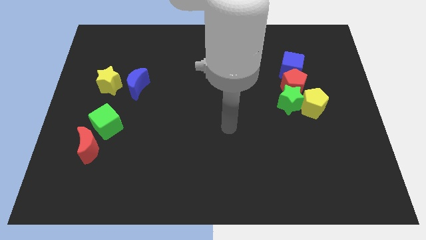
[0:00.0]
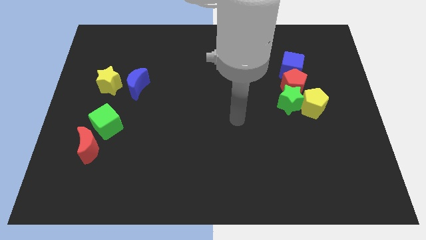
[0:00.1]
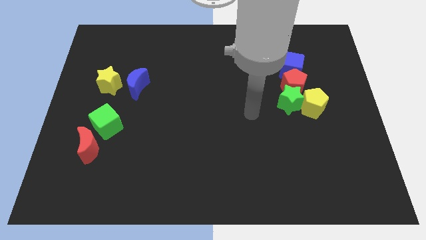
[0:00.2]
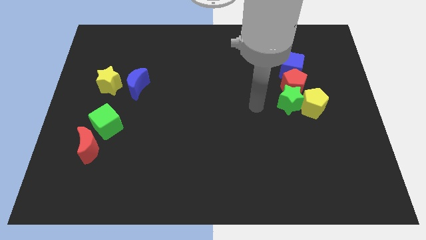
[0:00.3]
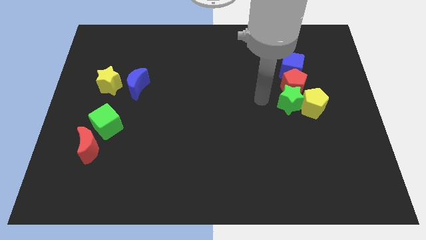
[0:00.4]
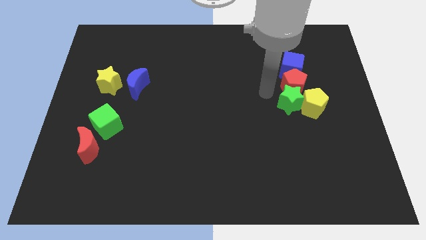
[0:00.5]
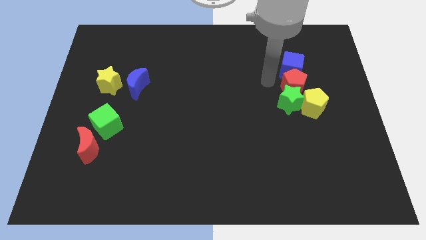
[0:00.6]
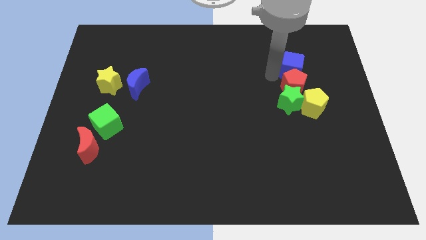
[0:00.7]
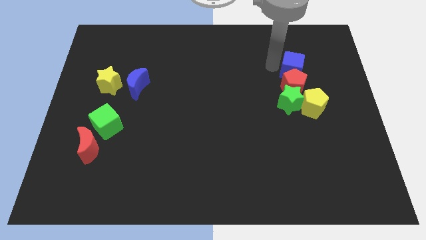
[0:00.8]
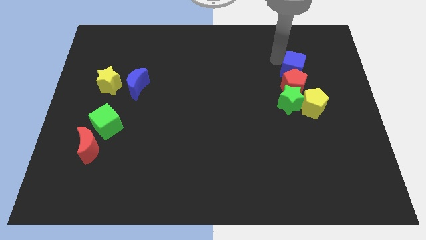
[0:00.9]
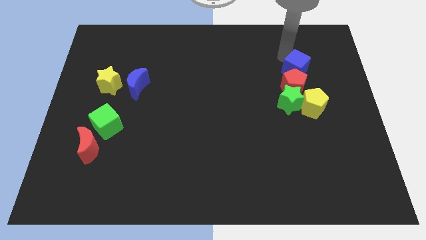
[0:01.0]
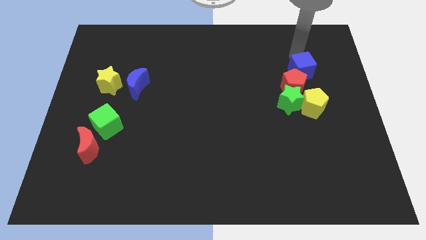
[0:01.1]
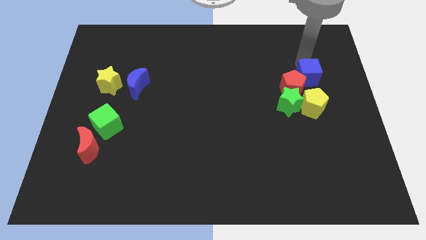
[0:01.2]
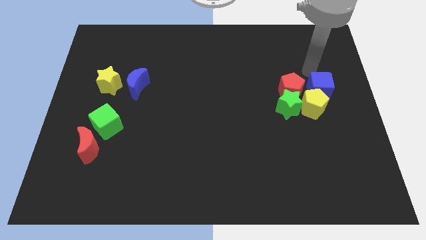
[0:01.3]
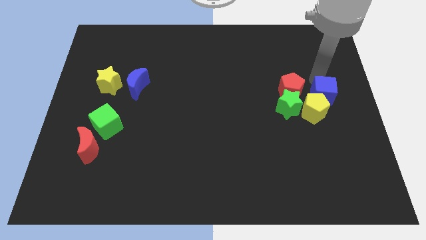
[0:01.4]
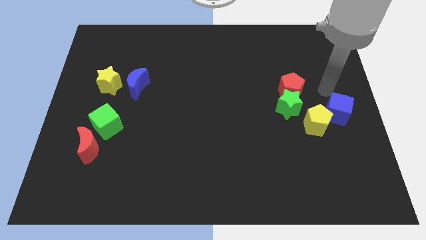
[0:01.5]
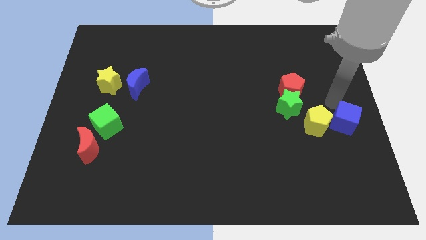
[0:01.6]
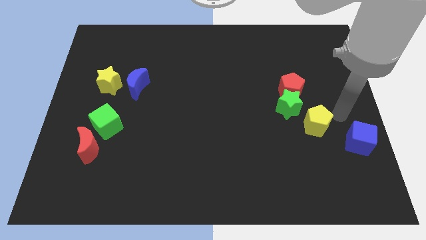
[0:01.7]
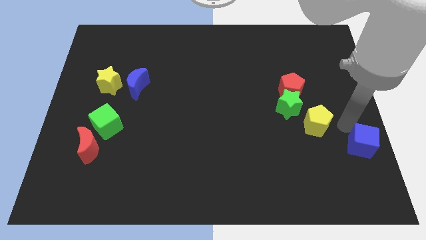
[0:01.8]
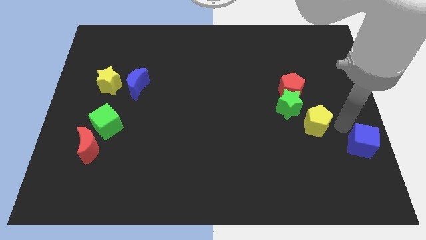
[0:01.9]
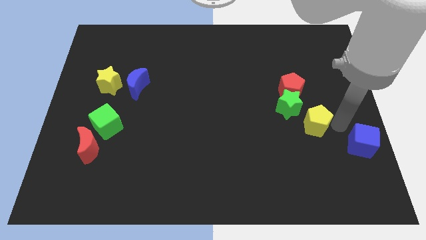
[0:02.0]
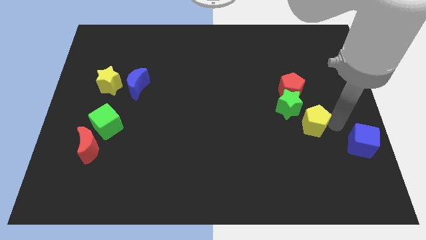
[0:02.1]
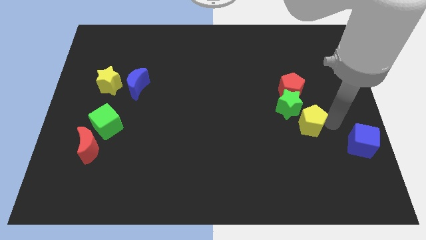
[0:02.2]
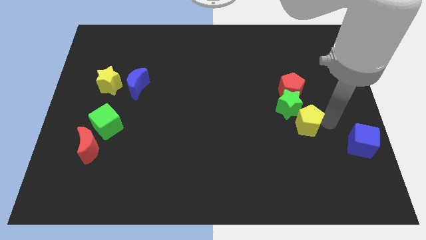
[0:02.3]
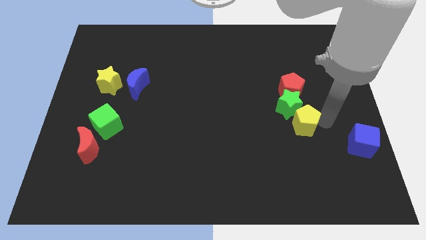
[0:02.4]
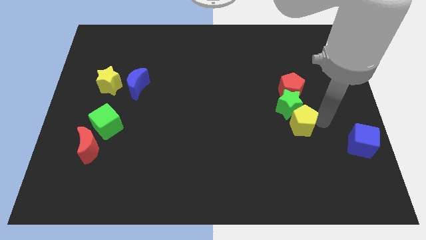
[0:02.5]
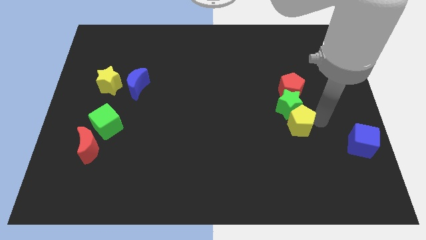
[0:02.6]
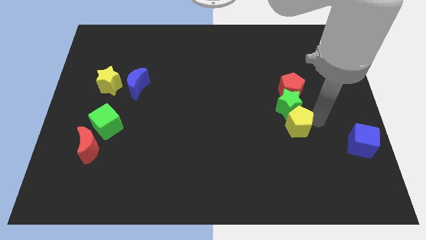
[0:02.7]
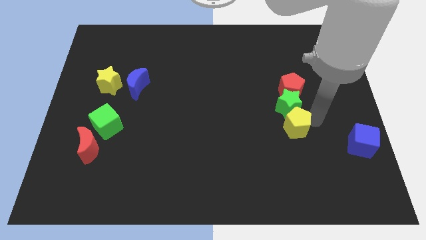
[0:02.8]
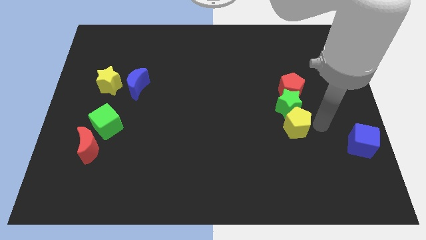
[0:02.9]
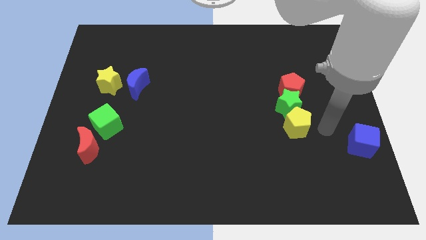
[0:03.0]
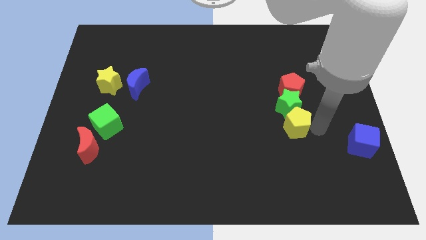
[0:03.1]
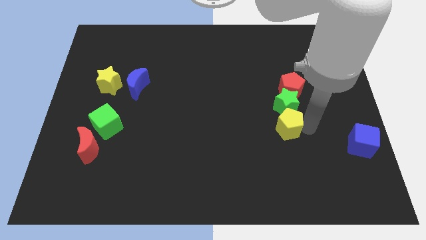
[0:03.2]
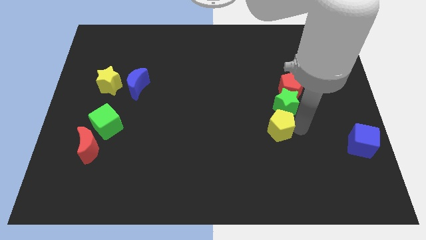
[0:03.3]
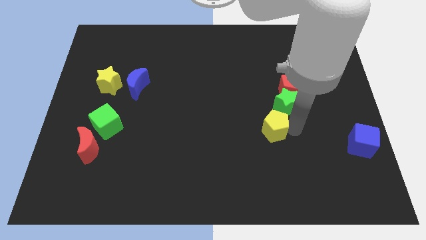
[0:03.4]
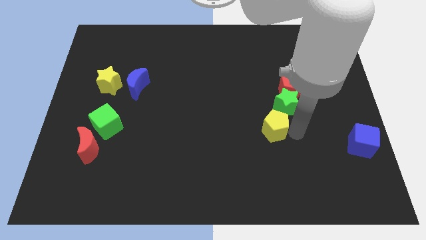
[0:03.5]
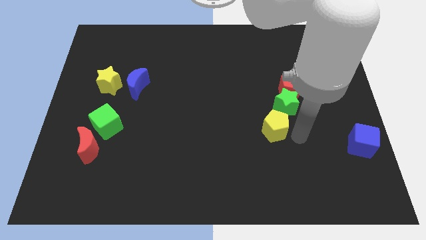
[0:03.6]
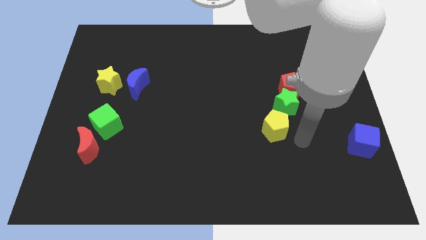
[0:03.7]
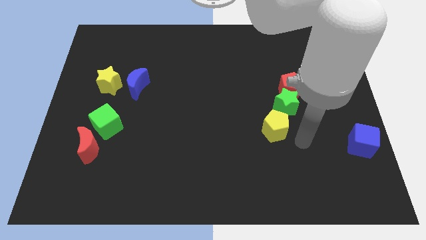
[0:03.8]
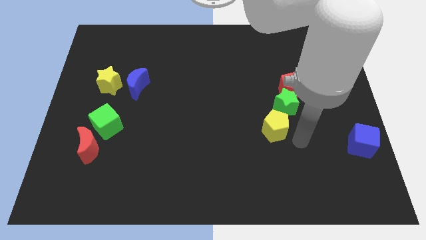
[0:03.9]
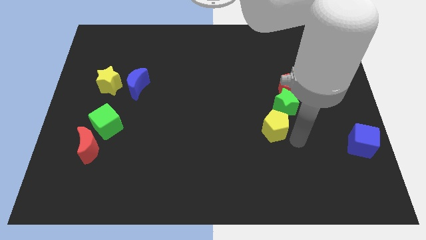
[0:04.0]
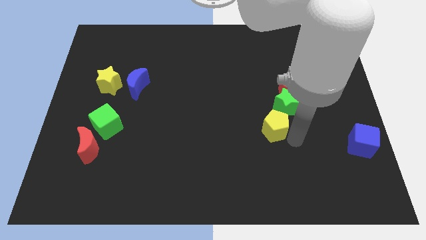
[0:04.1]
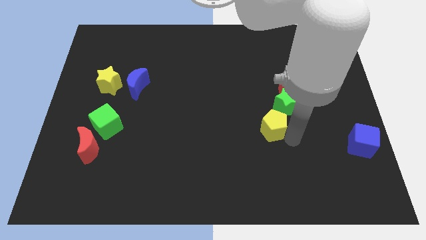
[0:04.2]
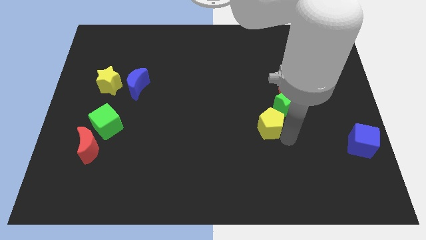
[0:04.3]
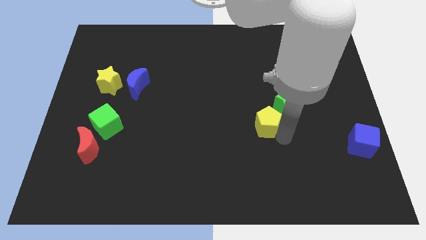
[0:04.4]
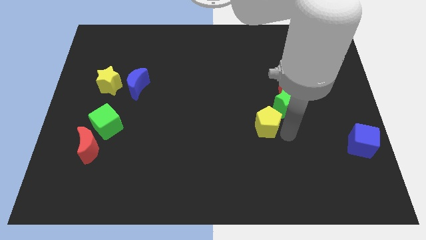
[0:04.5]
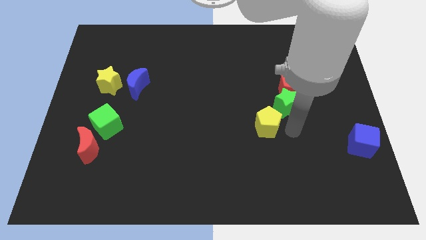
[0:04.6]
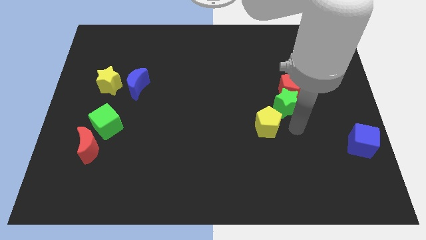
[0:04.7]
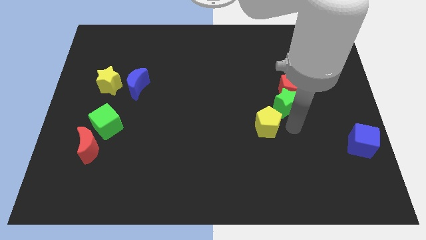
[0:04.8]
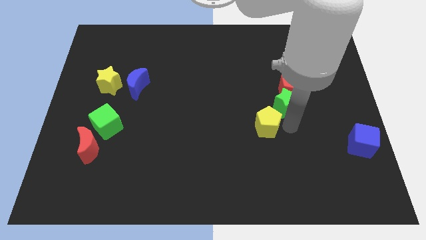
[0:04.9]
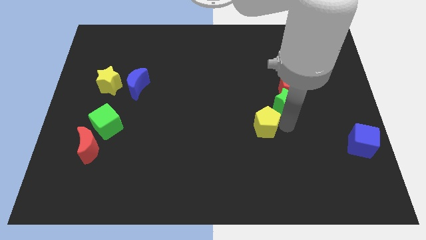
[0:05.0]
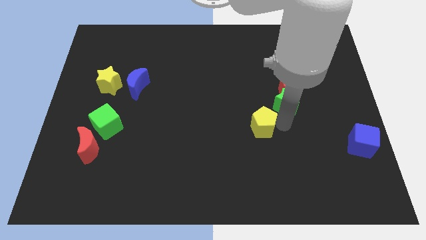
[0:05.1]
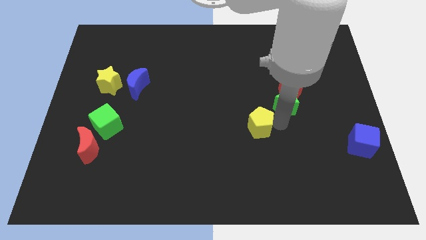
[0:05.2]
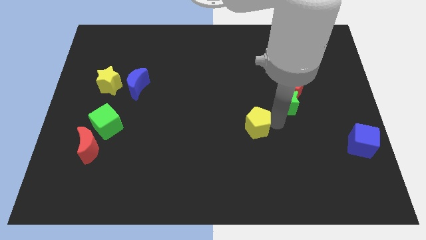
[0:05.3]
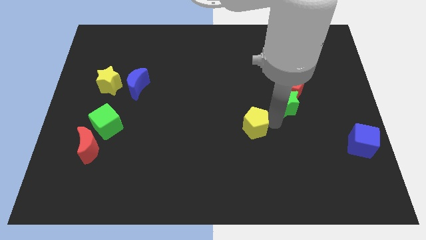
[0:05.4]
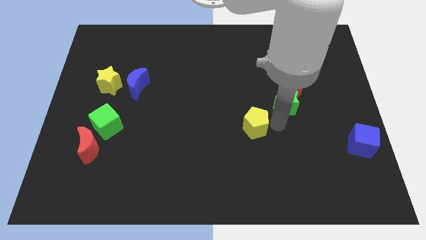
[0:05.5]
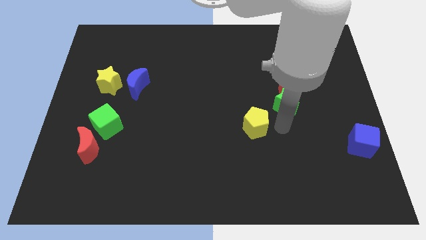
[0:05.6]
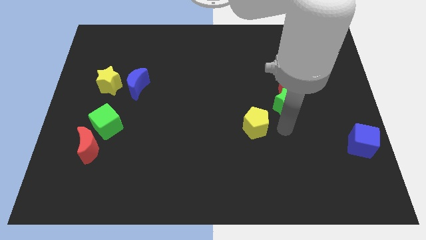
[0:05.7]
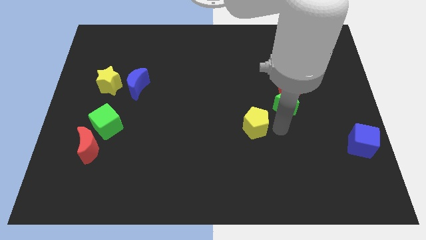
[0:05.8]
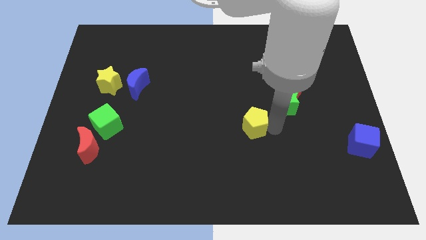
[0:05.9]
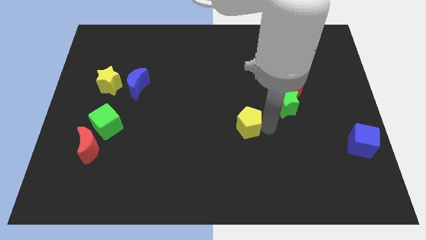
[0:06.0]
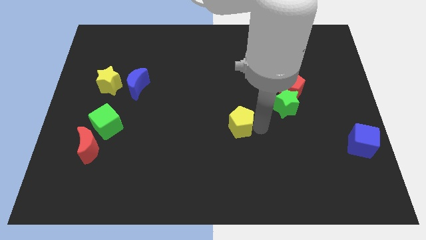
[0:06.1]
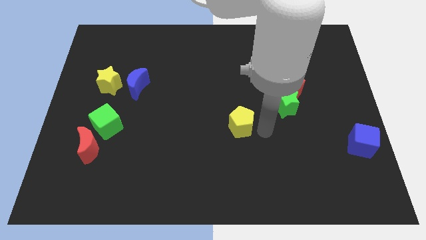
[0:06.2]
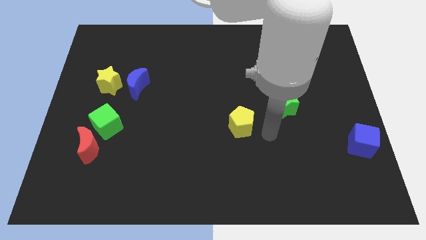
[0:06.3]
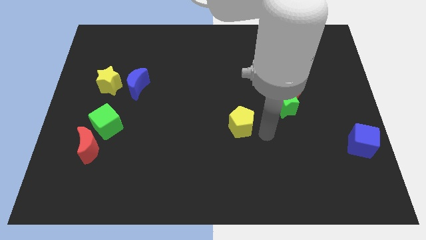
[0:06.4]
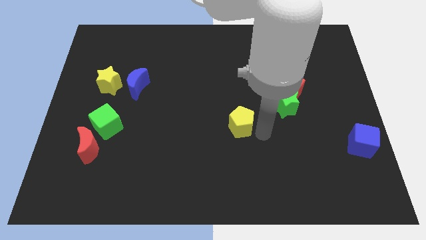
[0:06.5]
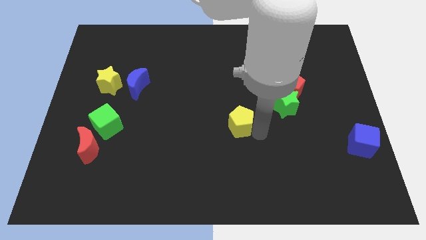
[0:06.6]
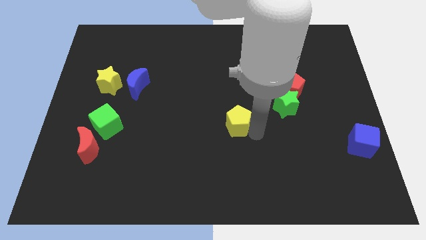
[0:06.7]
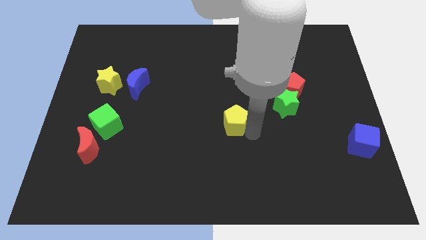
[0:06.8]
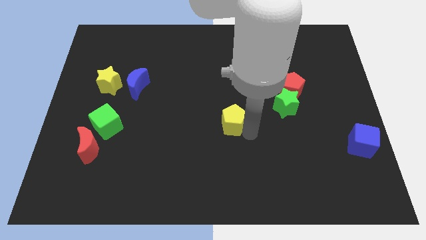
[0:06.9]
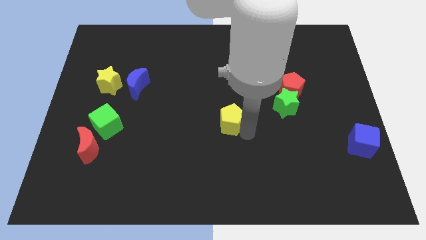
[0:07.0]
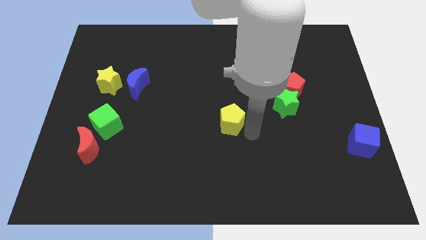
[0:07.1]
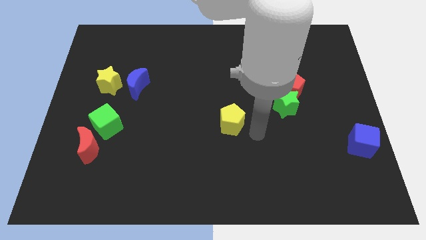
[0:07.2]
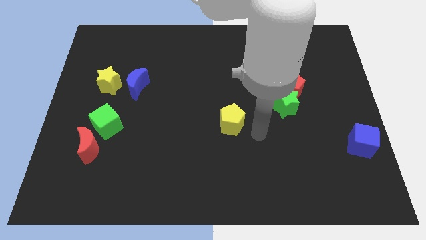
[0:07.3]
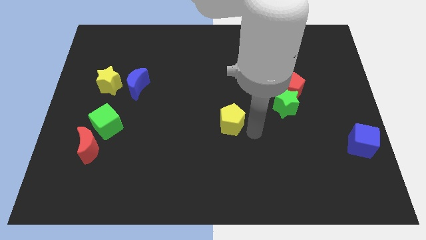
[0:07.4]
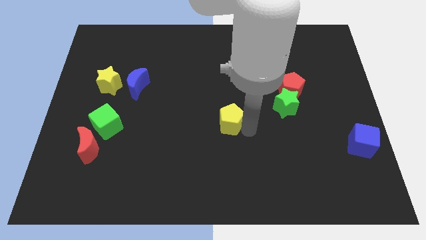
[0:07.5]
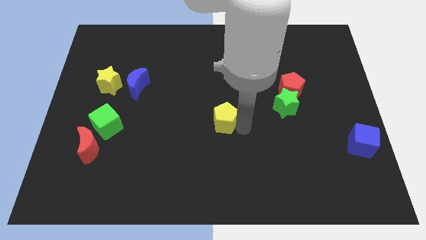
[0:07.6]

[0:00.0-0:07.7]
move the yellow pentagon left
